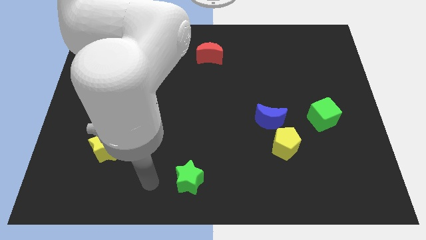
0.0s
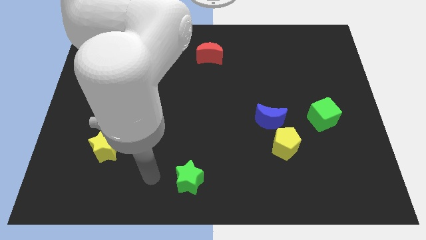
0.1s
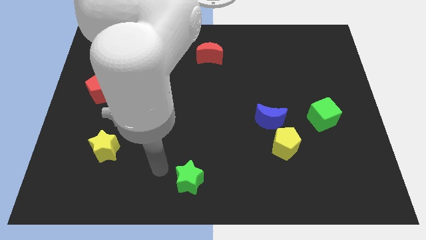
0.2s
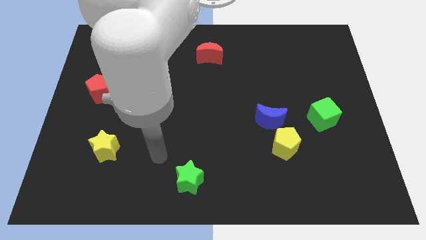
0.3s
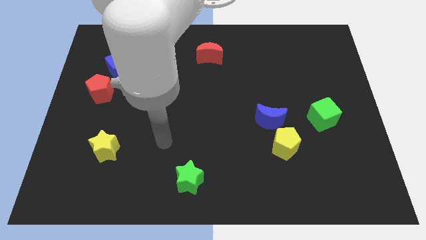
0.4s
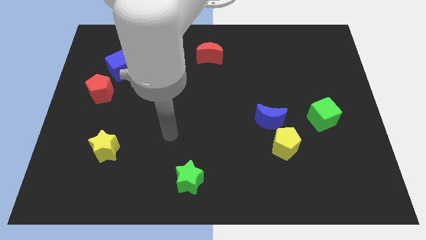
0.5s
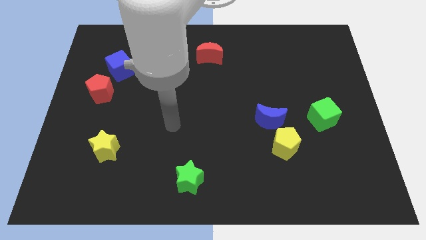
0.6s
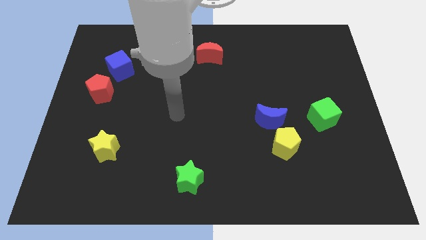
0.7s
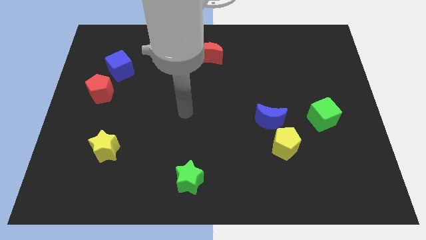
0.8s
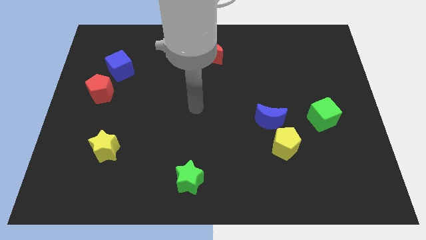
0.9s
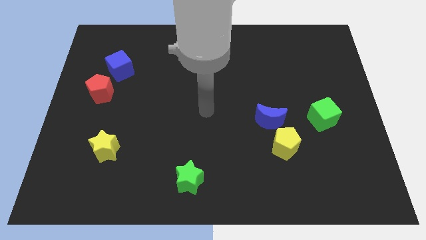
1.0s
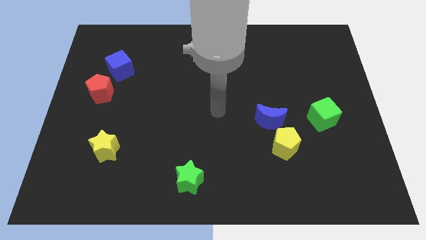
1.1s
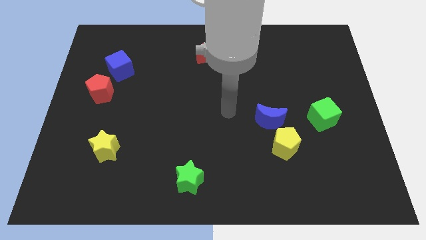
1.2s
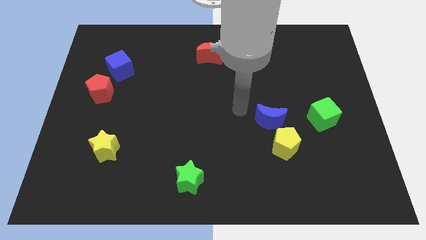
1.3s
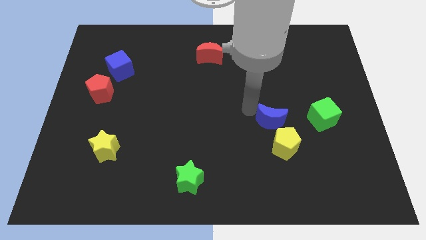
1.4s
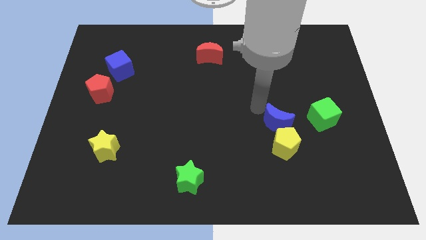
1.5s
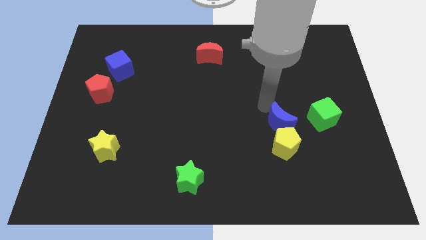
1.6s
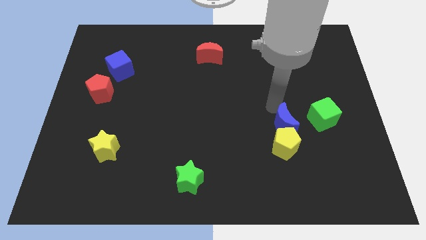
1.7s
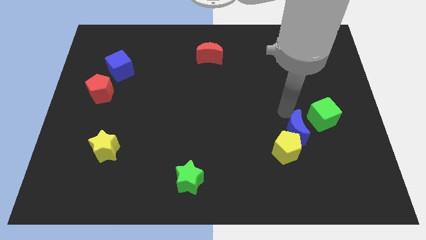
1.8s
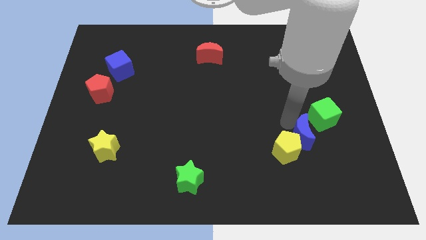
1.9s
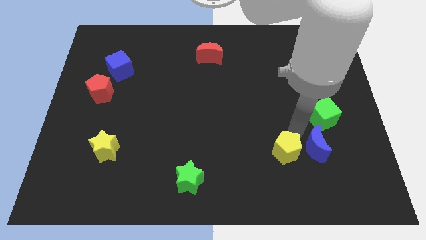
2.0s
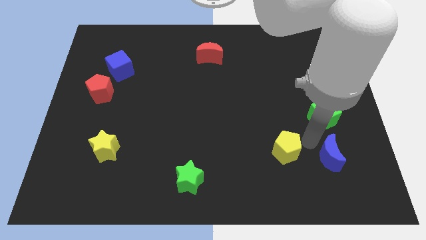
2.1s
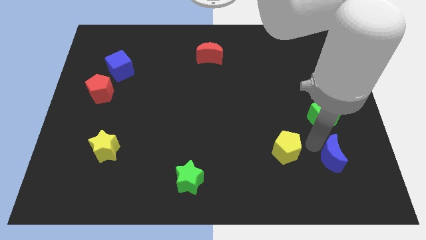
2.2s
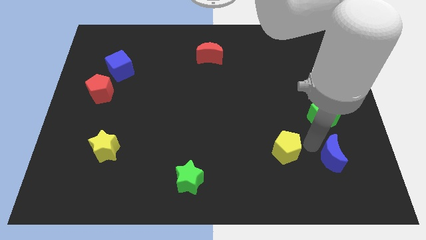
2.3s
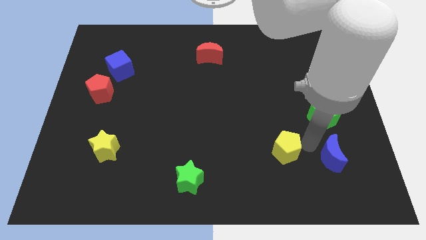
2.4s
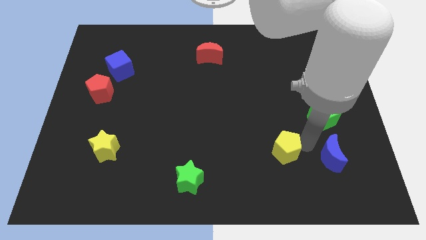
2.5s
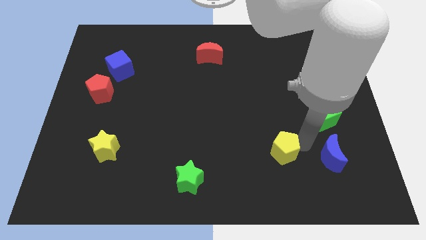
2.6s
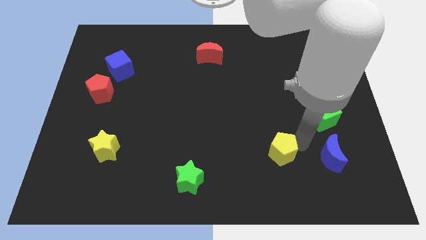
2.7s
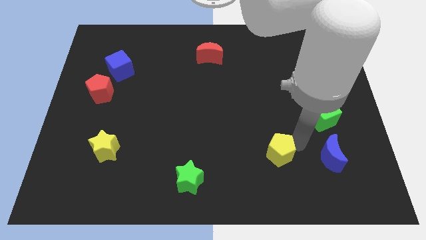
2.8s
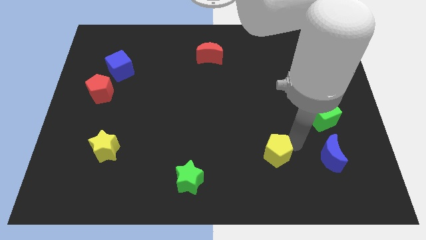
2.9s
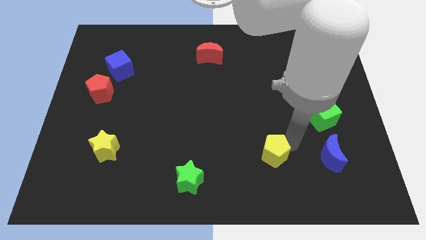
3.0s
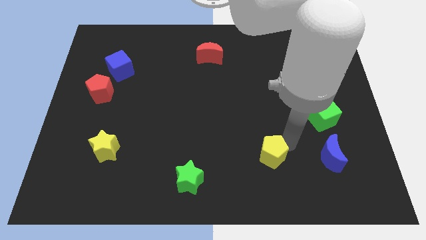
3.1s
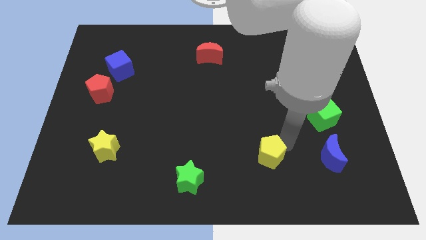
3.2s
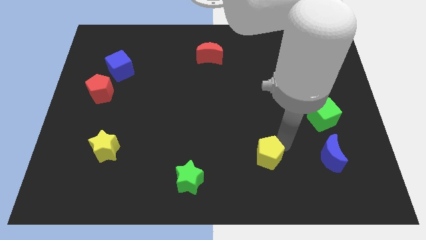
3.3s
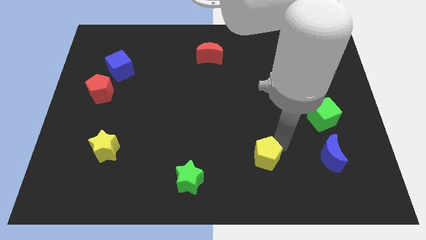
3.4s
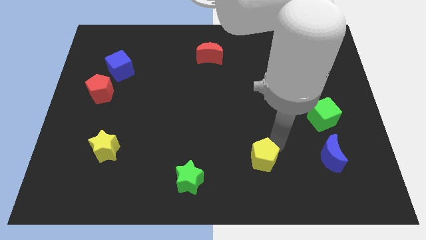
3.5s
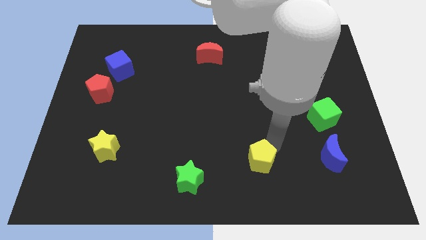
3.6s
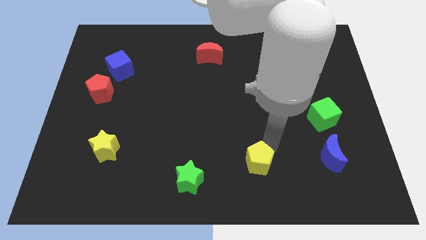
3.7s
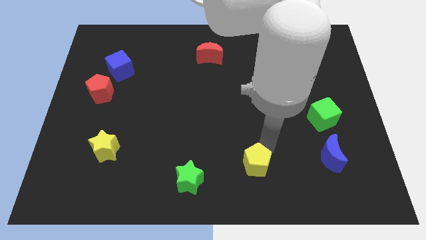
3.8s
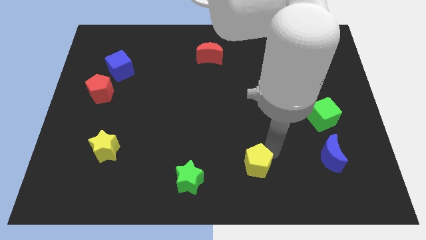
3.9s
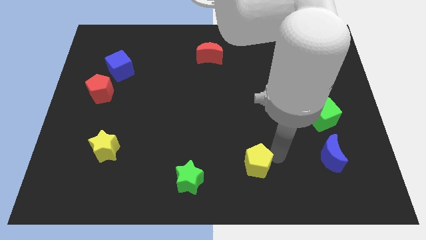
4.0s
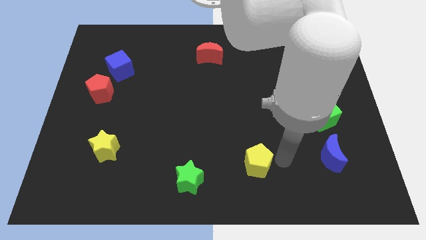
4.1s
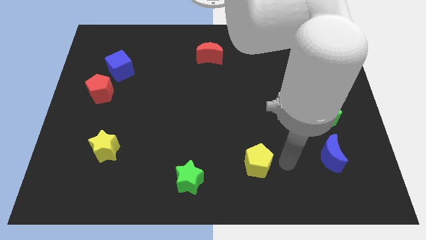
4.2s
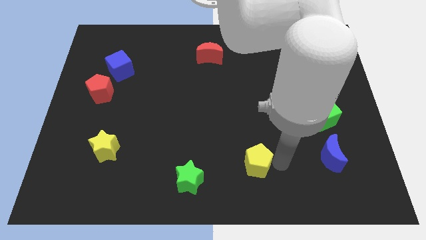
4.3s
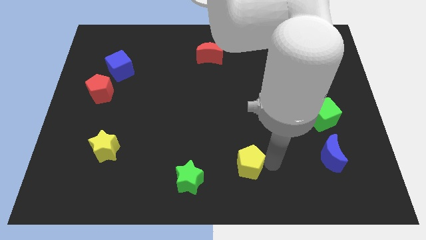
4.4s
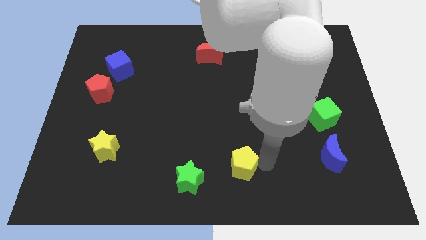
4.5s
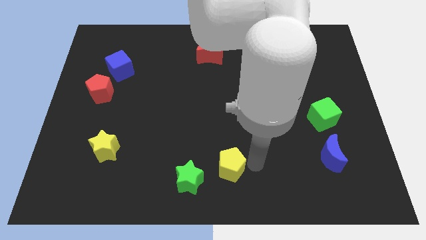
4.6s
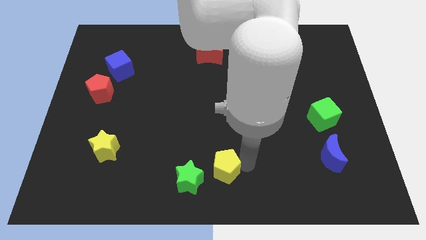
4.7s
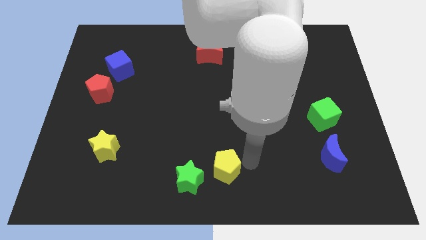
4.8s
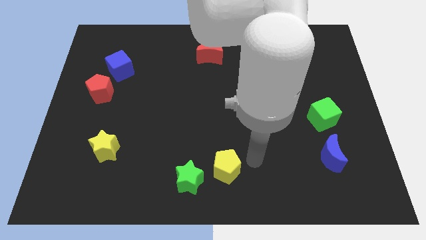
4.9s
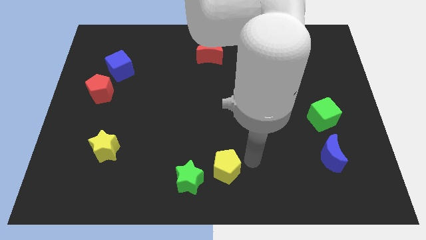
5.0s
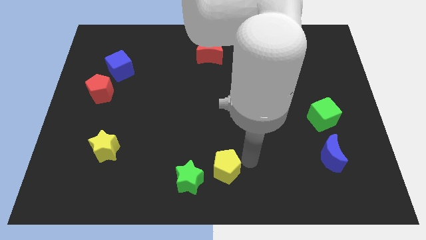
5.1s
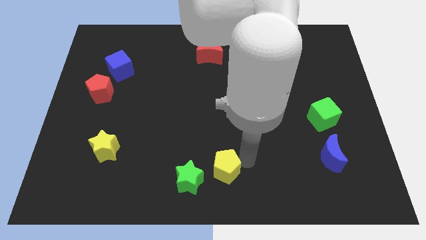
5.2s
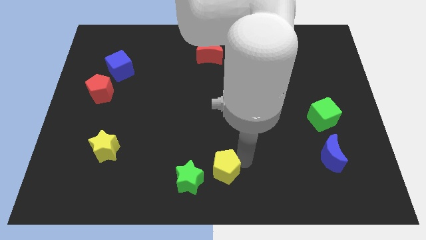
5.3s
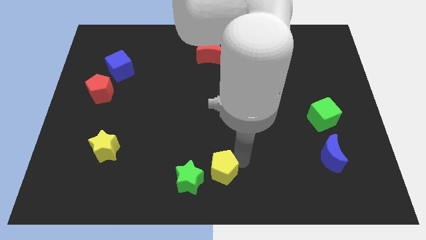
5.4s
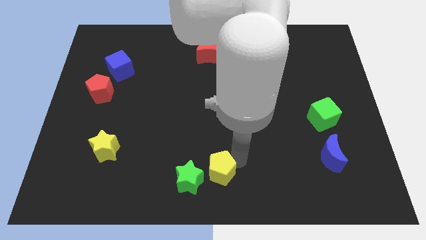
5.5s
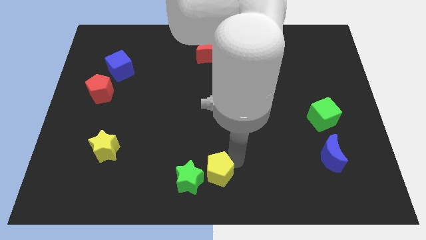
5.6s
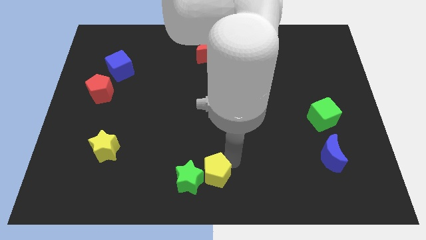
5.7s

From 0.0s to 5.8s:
move the yellow pentagon to the green star

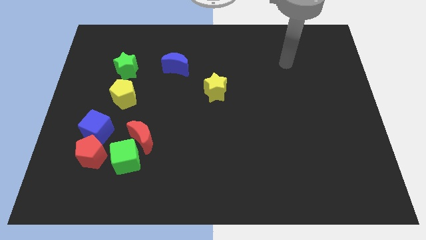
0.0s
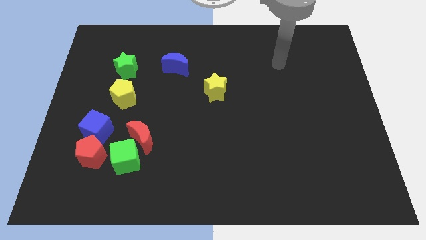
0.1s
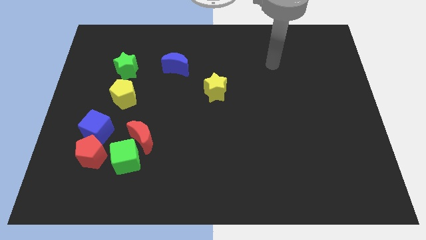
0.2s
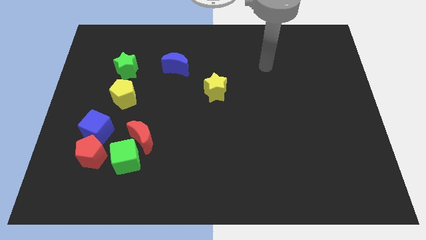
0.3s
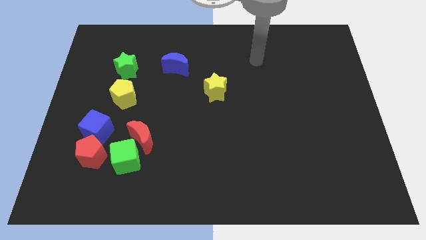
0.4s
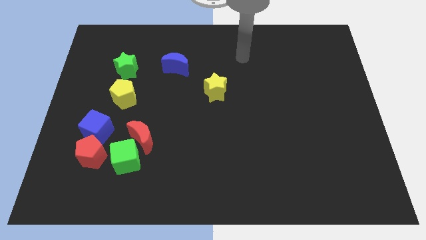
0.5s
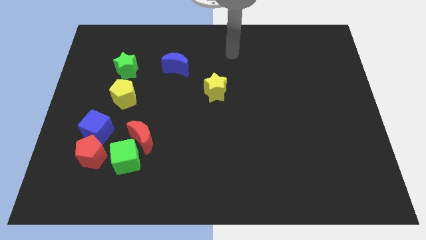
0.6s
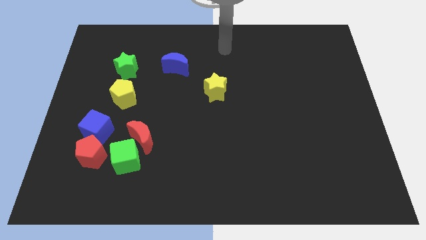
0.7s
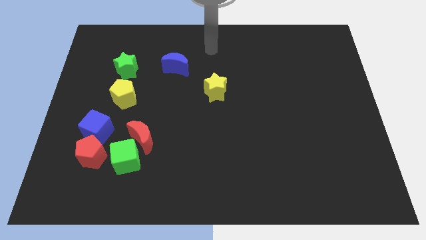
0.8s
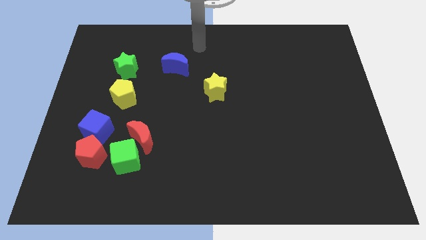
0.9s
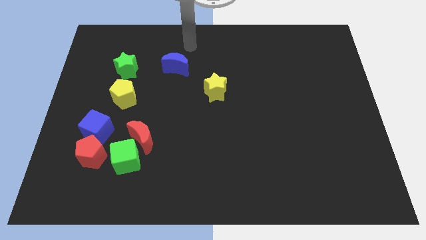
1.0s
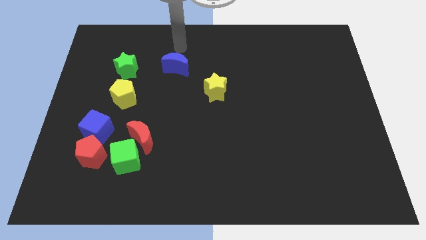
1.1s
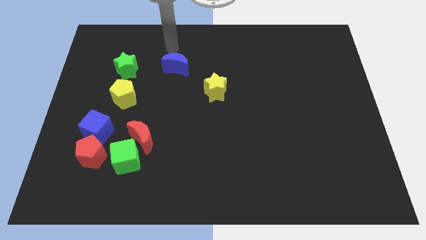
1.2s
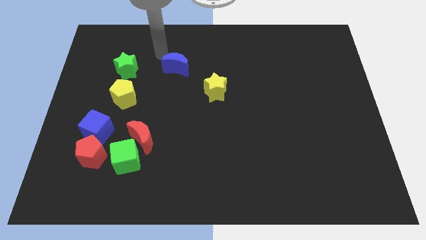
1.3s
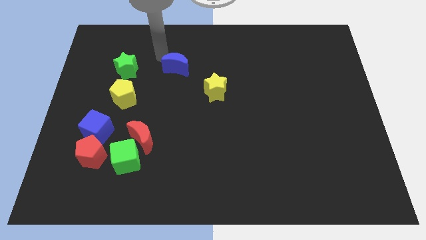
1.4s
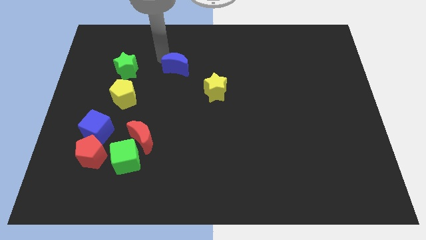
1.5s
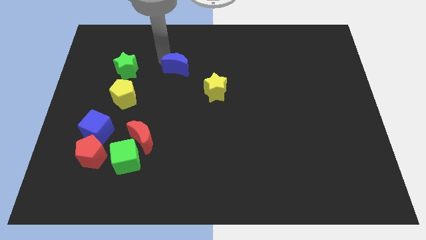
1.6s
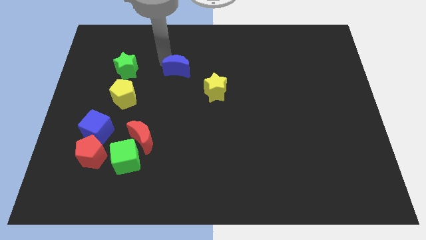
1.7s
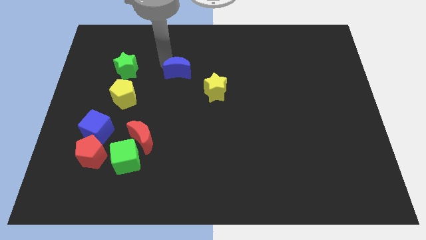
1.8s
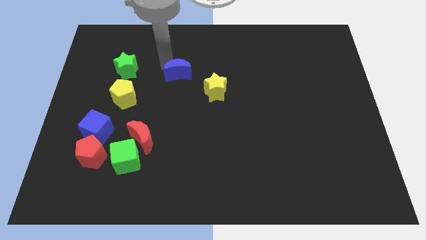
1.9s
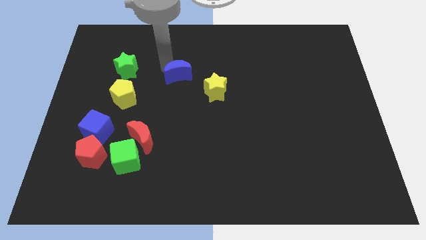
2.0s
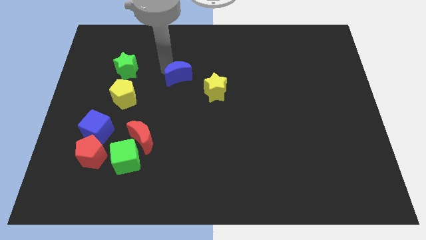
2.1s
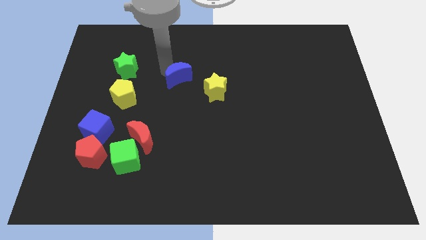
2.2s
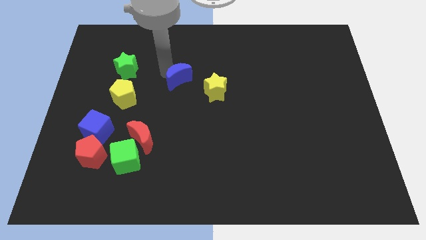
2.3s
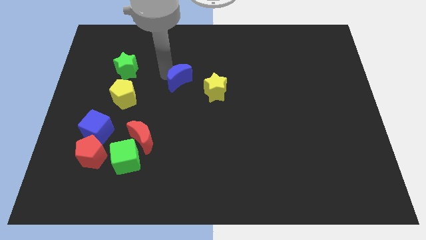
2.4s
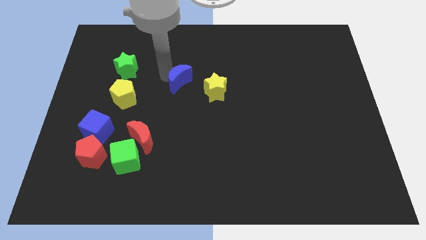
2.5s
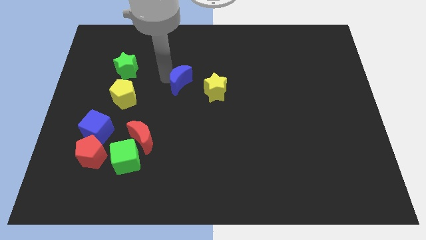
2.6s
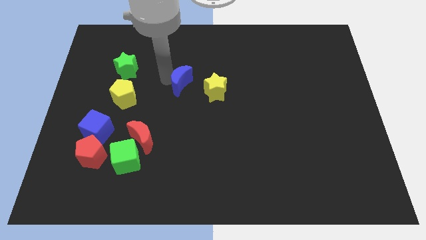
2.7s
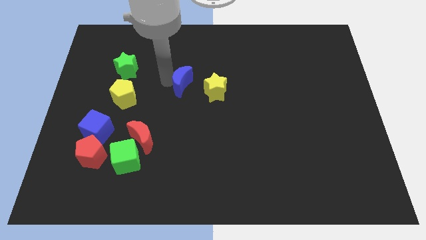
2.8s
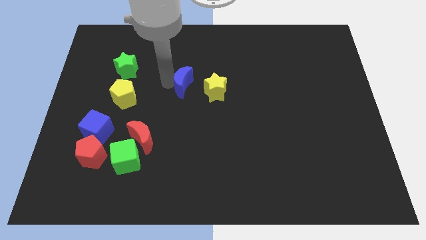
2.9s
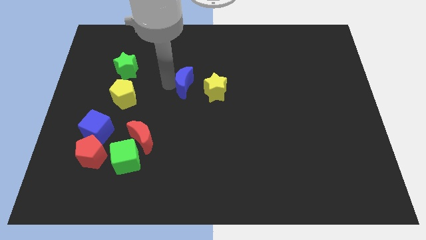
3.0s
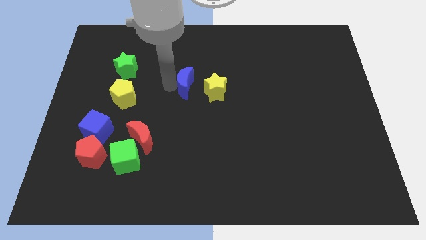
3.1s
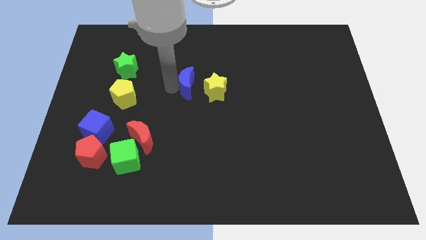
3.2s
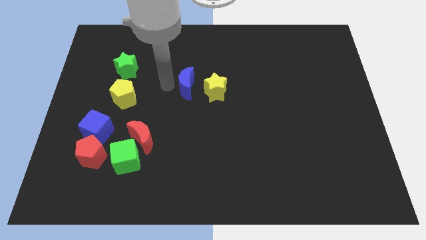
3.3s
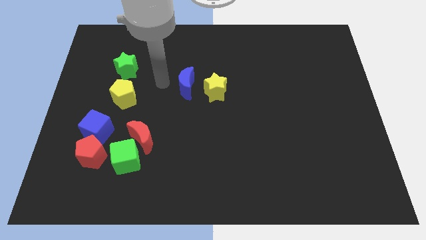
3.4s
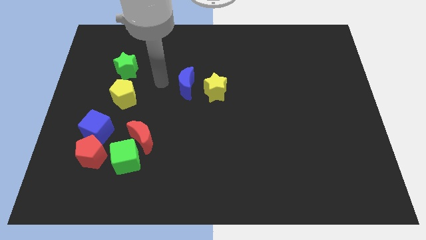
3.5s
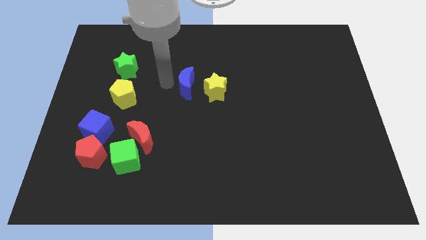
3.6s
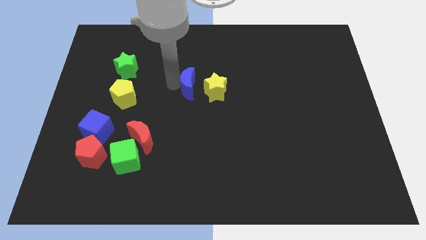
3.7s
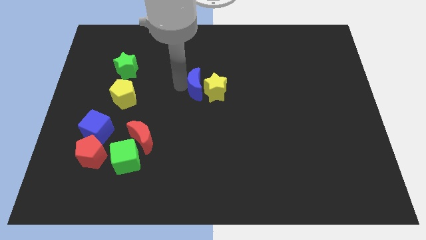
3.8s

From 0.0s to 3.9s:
push the blue moon towards the yellow star
